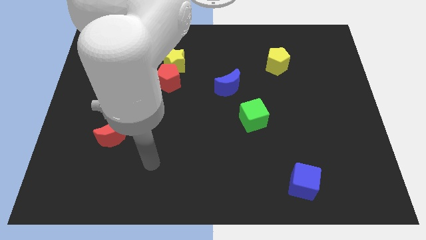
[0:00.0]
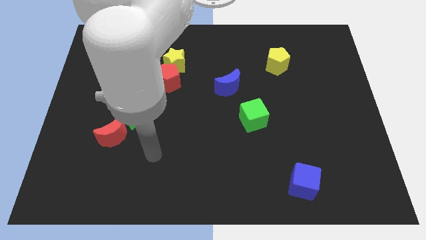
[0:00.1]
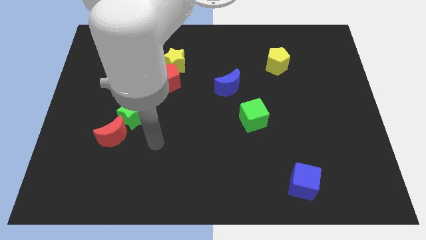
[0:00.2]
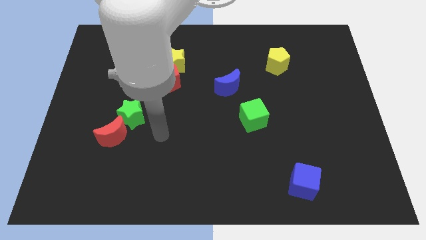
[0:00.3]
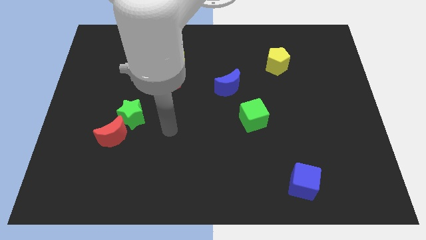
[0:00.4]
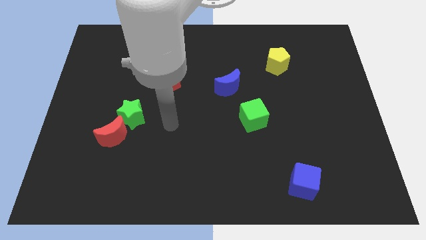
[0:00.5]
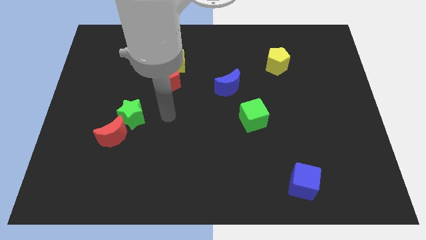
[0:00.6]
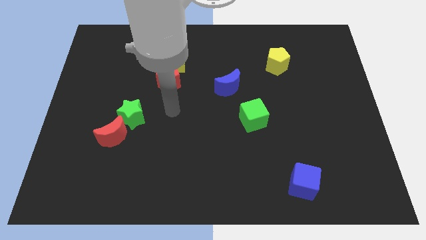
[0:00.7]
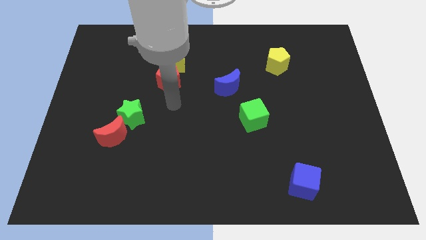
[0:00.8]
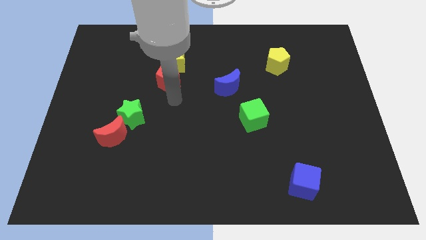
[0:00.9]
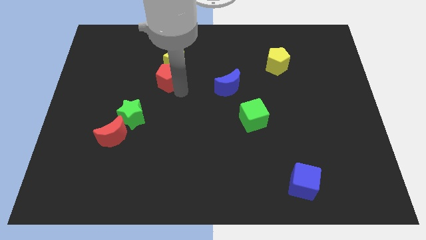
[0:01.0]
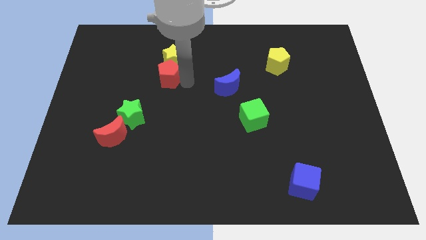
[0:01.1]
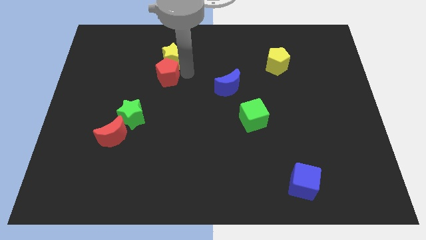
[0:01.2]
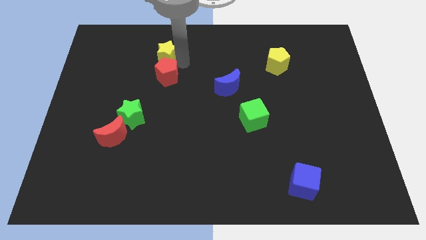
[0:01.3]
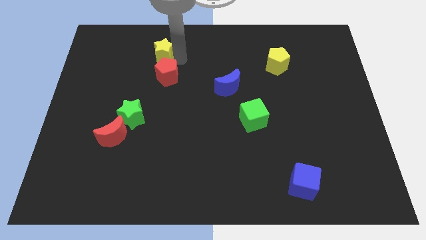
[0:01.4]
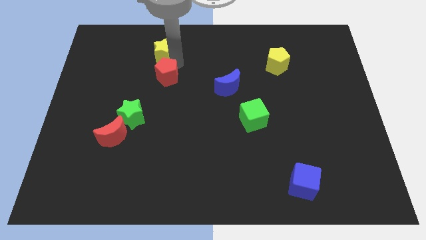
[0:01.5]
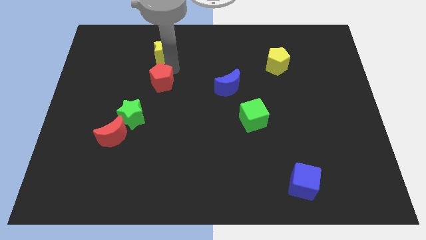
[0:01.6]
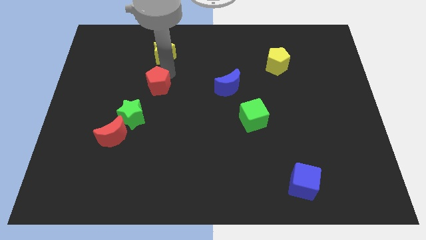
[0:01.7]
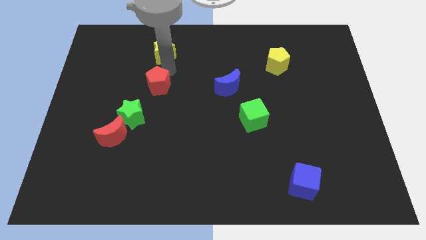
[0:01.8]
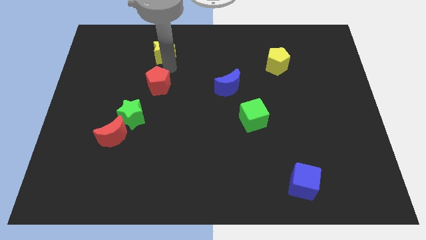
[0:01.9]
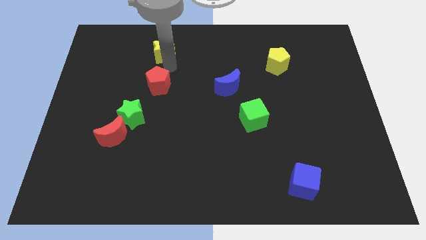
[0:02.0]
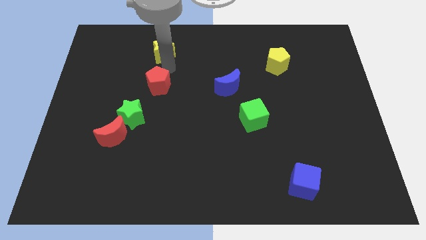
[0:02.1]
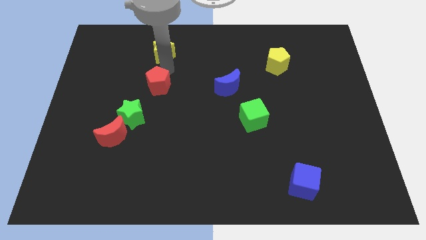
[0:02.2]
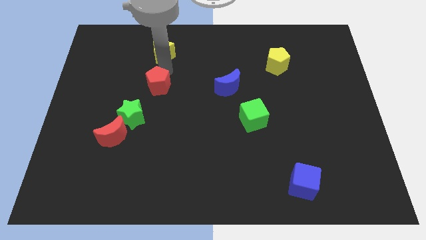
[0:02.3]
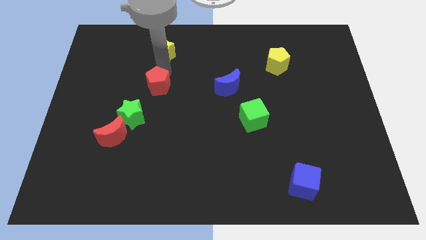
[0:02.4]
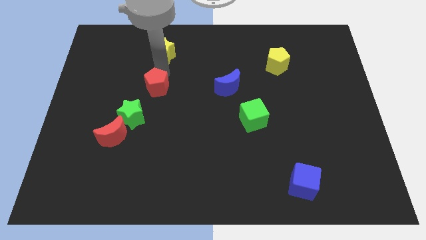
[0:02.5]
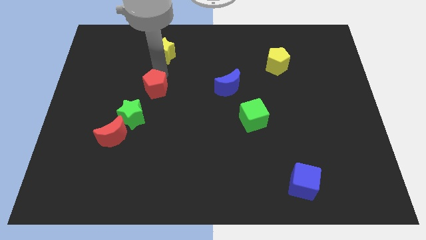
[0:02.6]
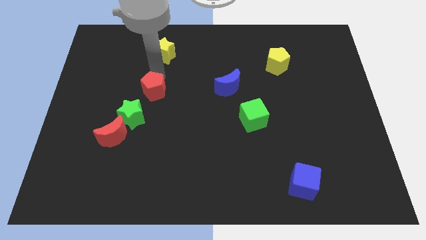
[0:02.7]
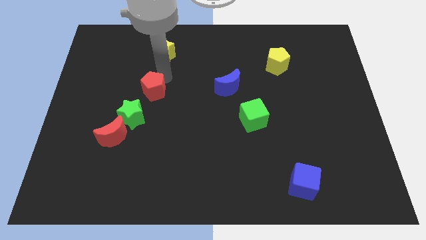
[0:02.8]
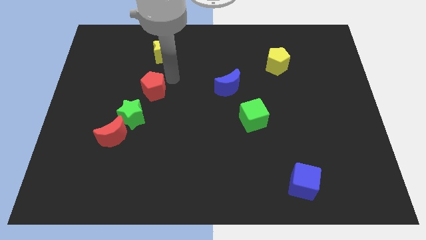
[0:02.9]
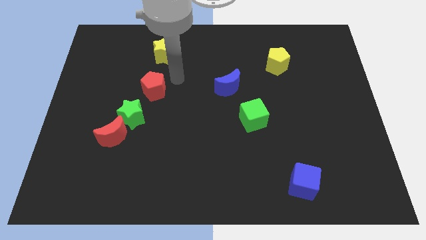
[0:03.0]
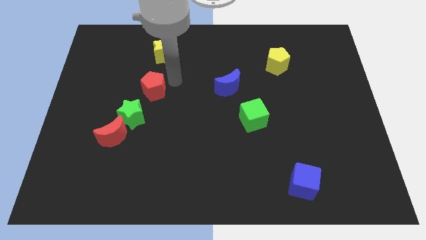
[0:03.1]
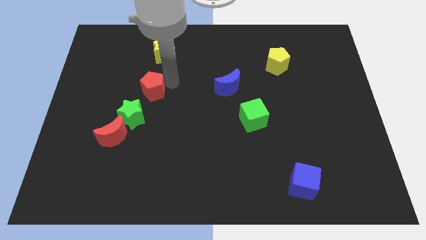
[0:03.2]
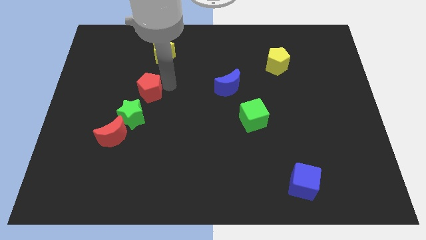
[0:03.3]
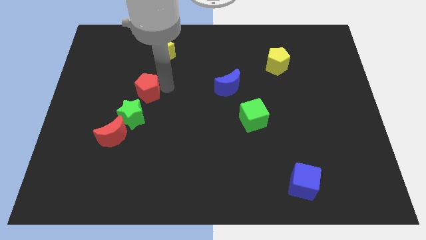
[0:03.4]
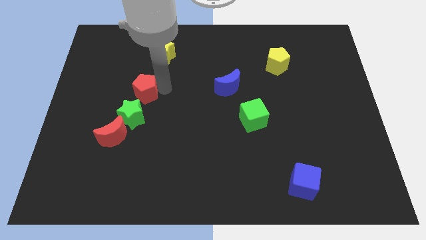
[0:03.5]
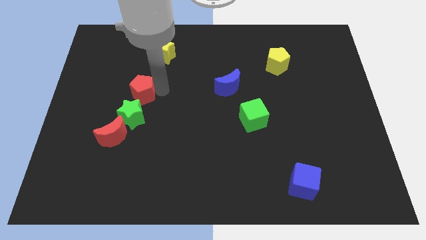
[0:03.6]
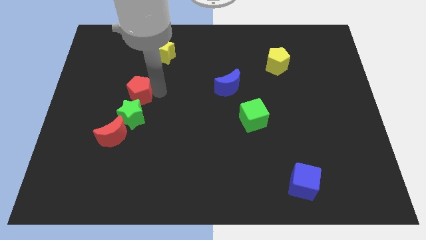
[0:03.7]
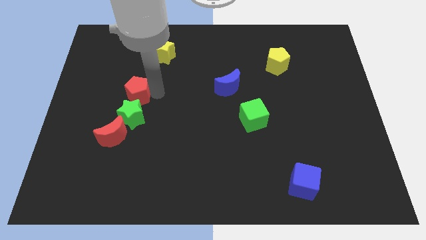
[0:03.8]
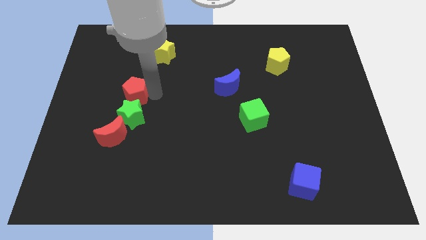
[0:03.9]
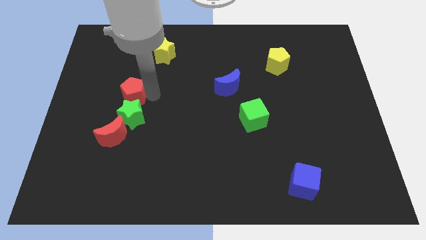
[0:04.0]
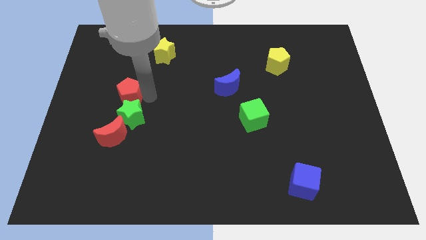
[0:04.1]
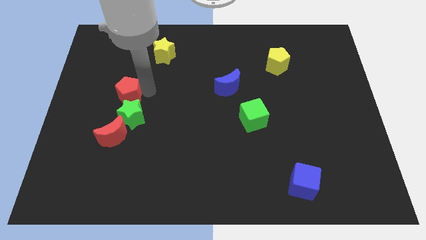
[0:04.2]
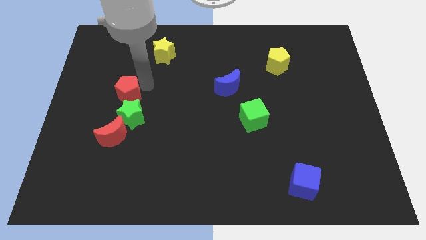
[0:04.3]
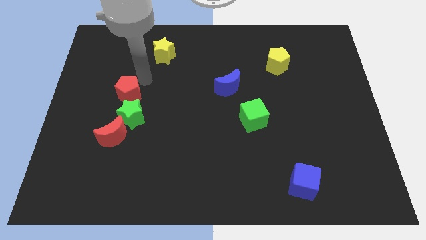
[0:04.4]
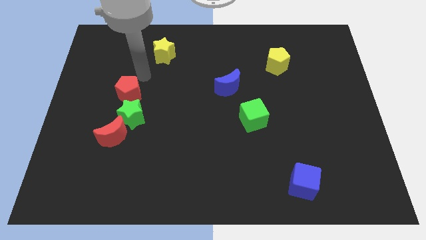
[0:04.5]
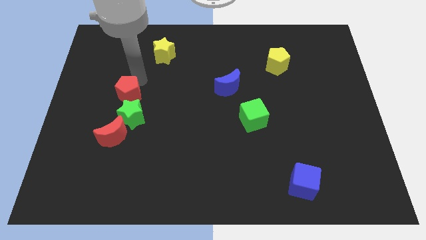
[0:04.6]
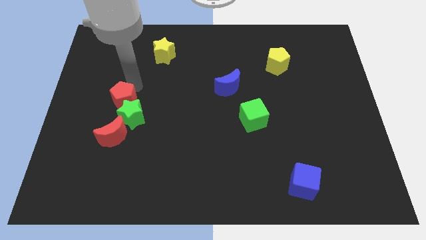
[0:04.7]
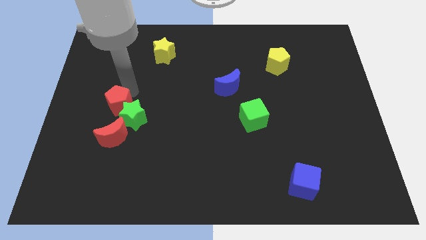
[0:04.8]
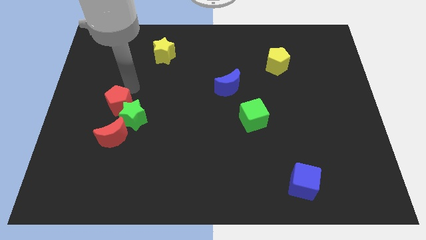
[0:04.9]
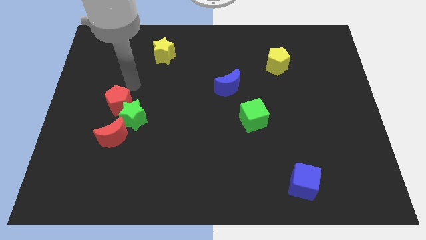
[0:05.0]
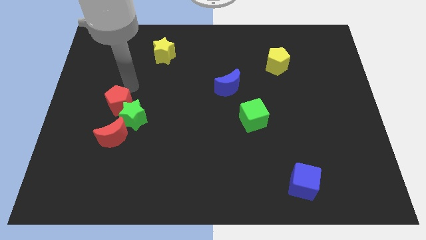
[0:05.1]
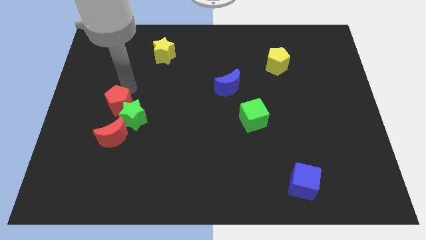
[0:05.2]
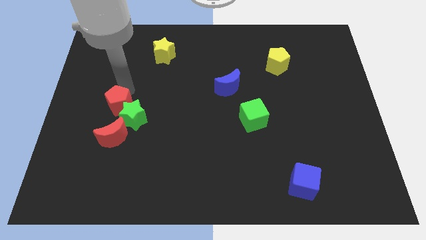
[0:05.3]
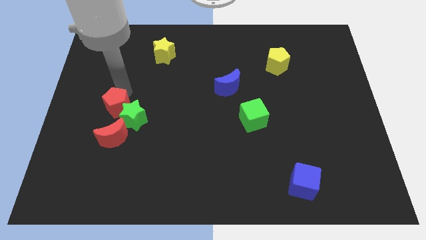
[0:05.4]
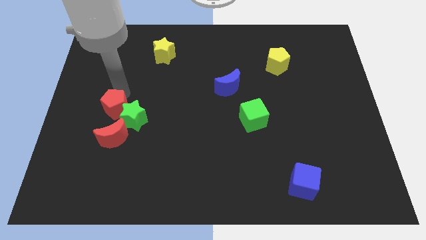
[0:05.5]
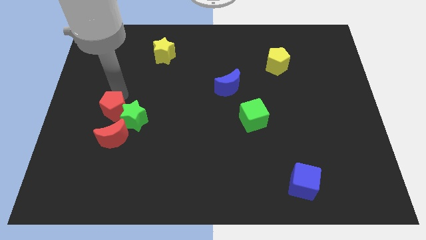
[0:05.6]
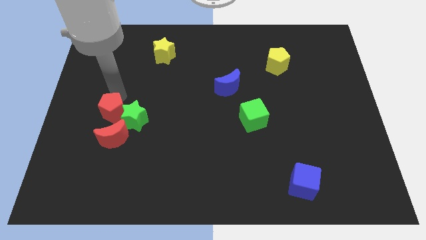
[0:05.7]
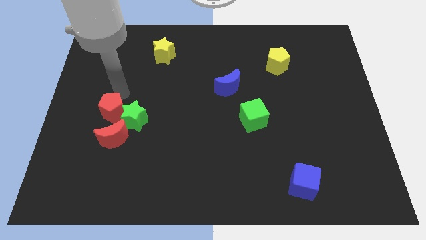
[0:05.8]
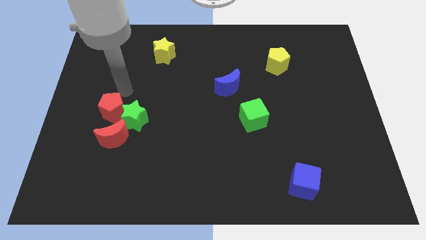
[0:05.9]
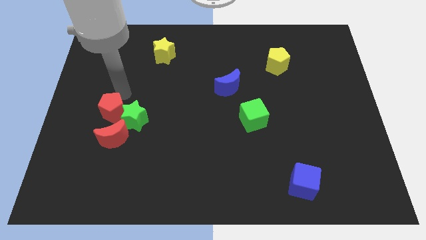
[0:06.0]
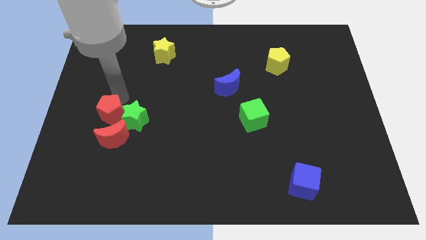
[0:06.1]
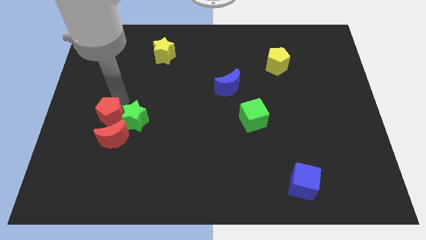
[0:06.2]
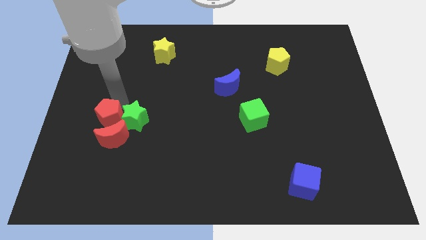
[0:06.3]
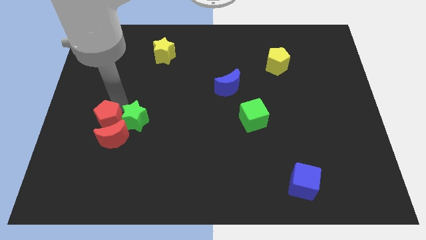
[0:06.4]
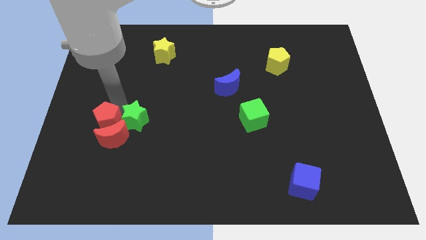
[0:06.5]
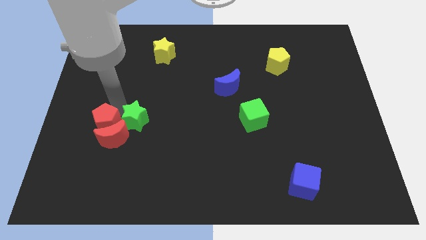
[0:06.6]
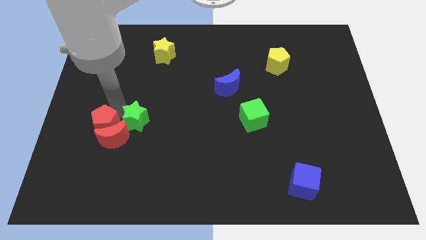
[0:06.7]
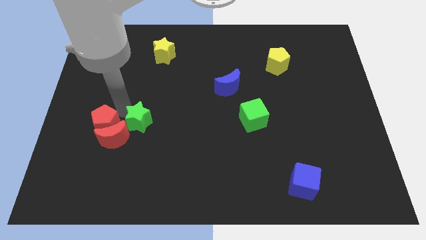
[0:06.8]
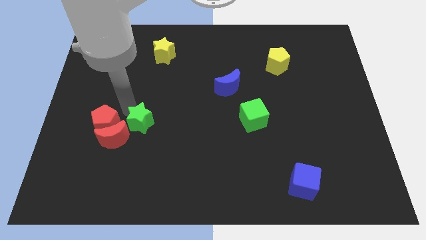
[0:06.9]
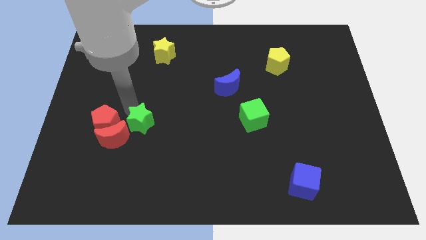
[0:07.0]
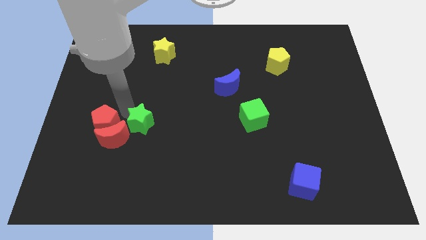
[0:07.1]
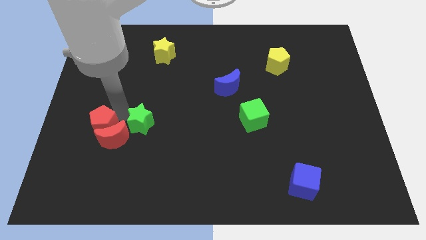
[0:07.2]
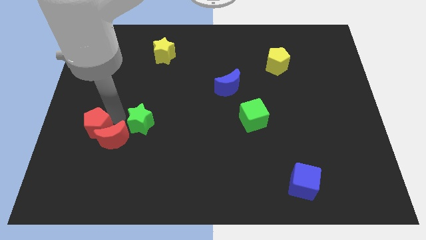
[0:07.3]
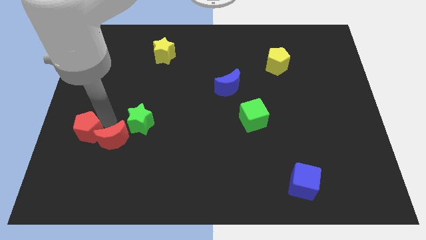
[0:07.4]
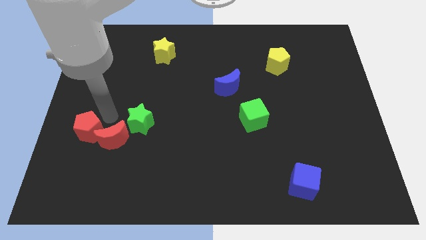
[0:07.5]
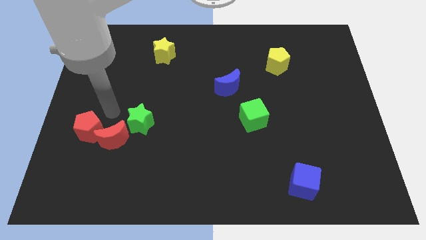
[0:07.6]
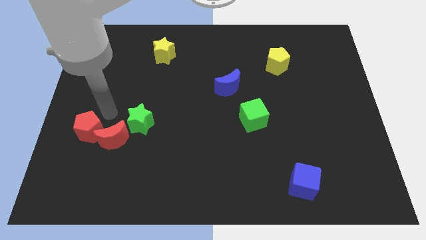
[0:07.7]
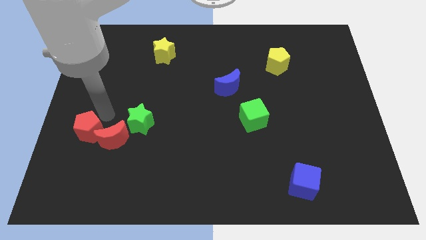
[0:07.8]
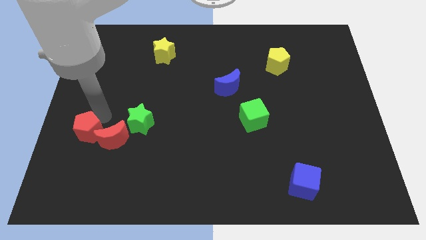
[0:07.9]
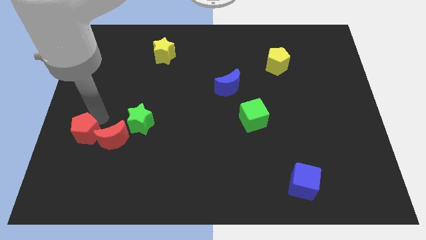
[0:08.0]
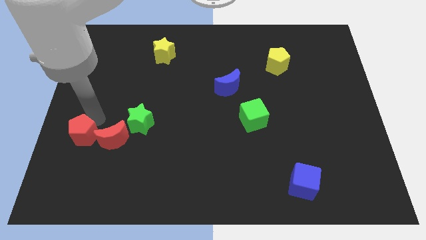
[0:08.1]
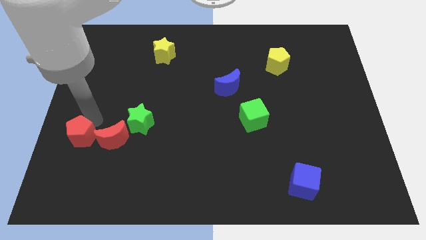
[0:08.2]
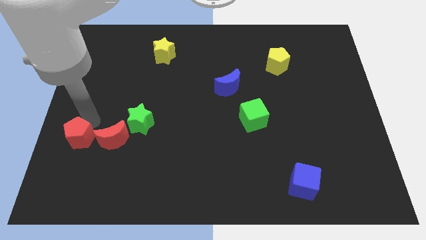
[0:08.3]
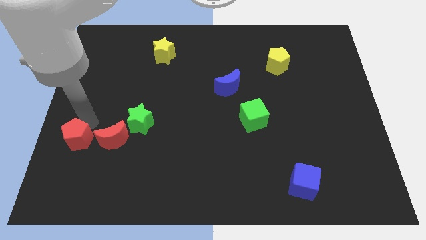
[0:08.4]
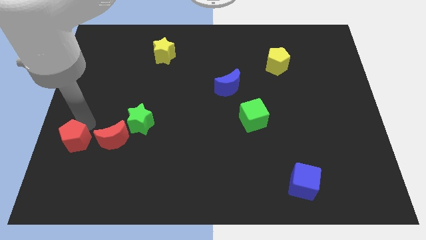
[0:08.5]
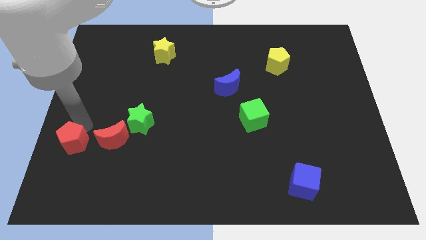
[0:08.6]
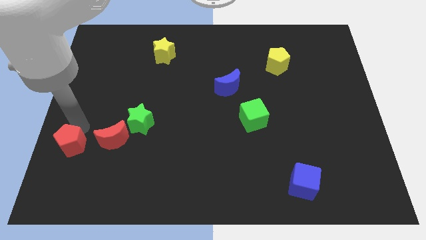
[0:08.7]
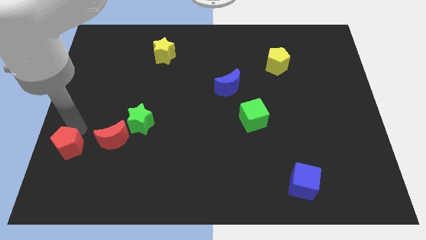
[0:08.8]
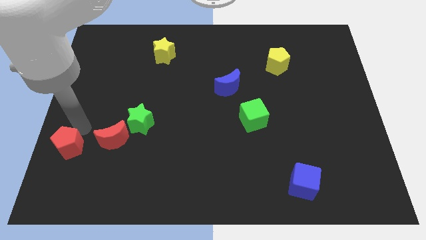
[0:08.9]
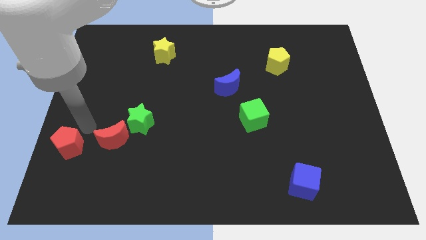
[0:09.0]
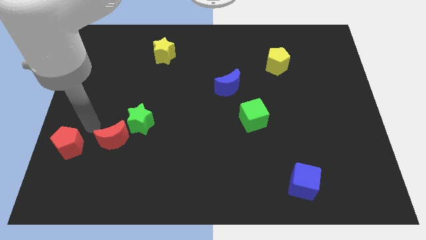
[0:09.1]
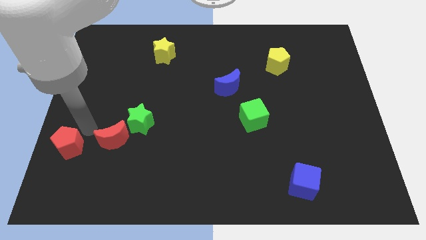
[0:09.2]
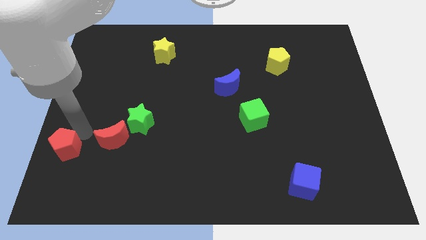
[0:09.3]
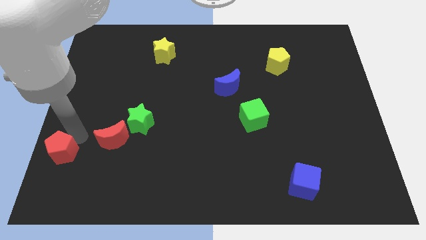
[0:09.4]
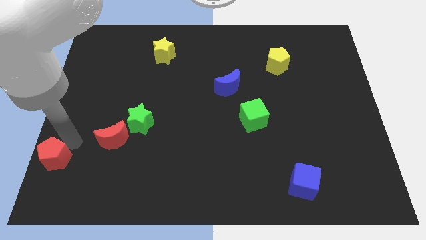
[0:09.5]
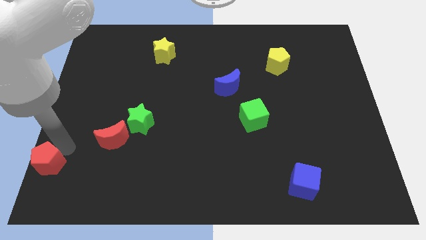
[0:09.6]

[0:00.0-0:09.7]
slide the red pentagon to the bottom left of the board
